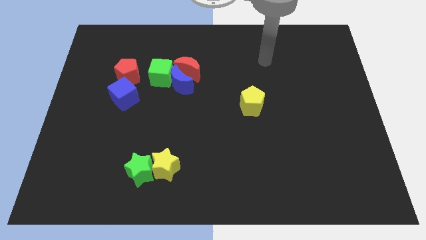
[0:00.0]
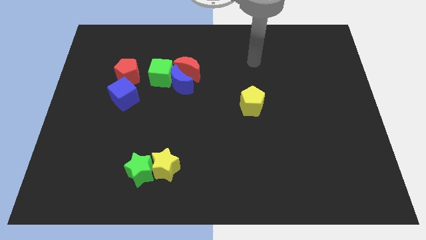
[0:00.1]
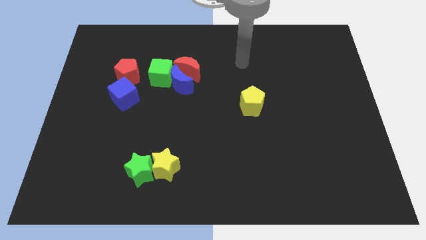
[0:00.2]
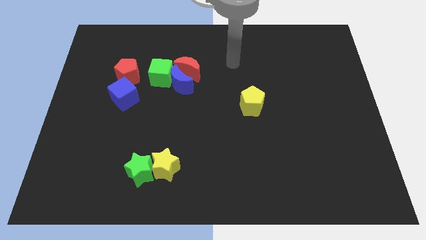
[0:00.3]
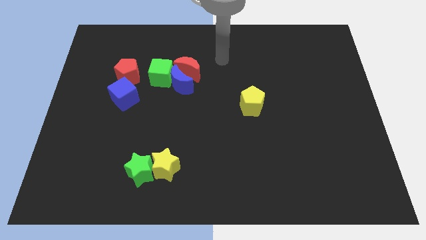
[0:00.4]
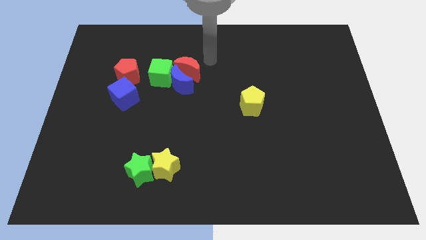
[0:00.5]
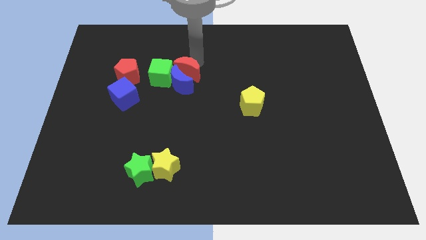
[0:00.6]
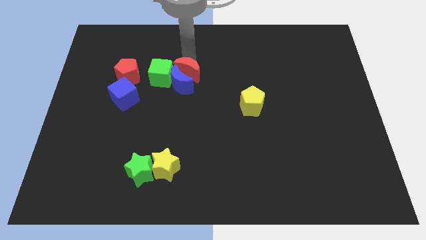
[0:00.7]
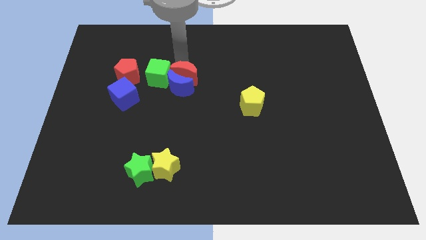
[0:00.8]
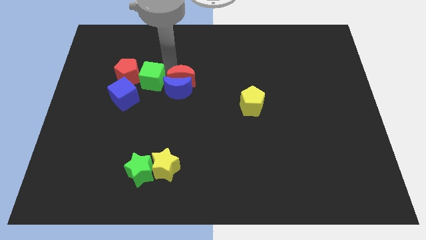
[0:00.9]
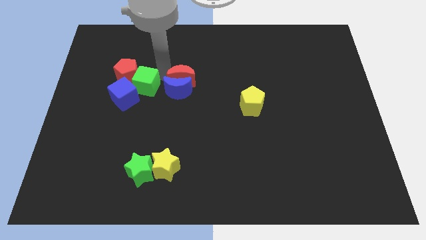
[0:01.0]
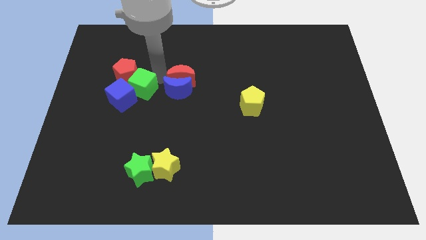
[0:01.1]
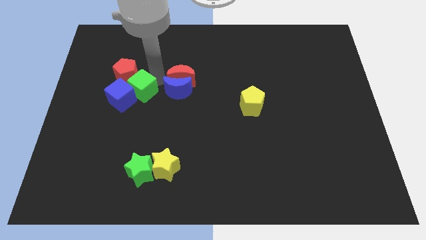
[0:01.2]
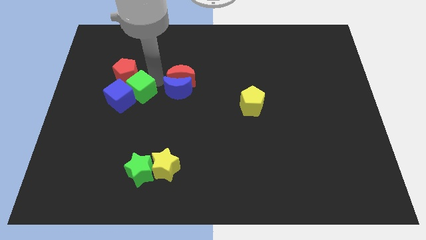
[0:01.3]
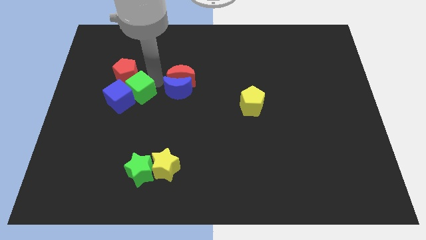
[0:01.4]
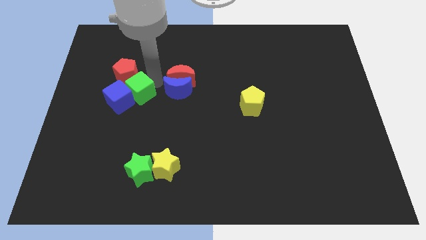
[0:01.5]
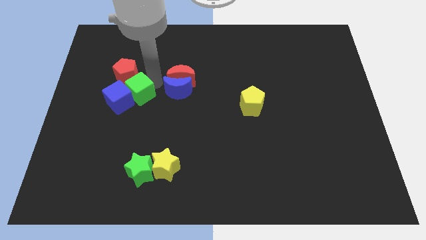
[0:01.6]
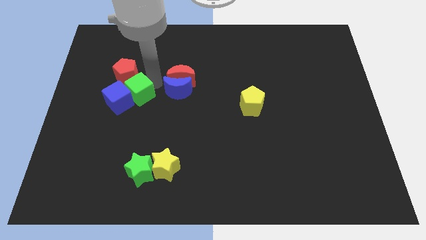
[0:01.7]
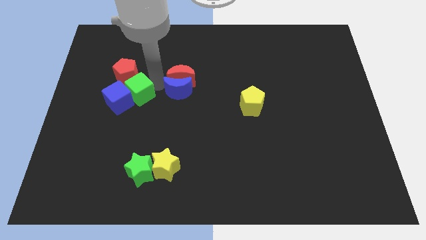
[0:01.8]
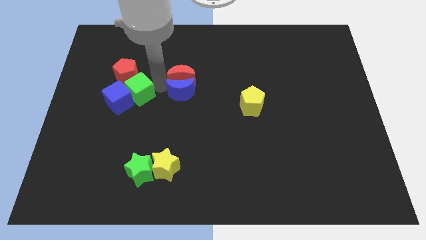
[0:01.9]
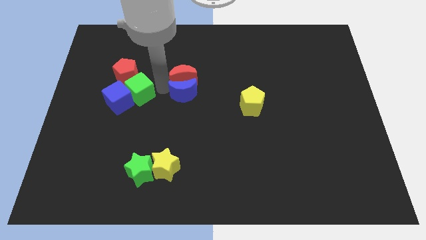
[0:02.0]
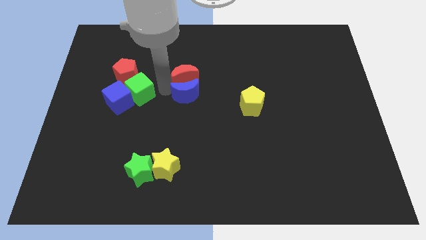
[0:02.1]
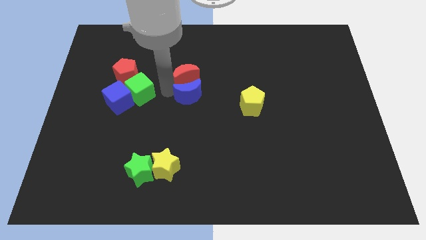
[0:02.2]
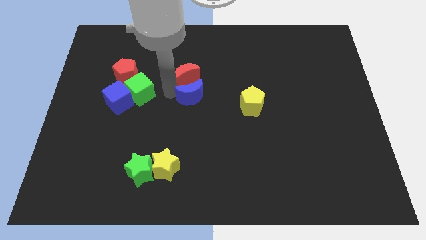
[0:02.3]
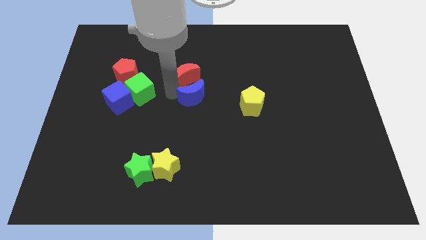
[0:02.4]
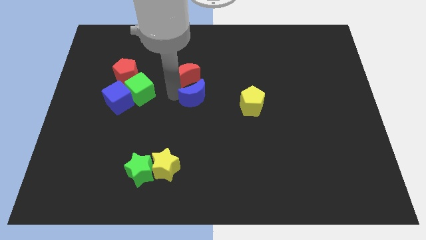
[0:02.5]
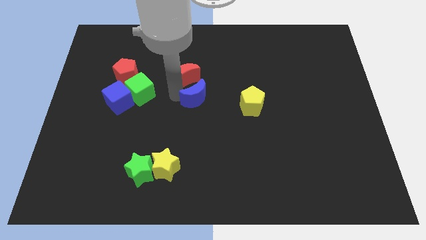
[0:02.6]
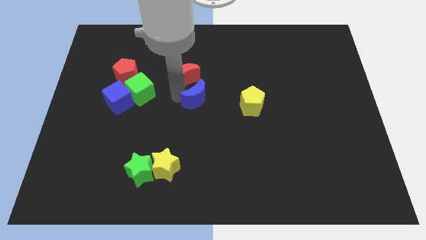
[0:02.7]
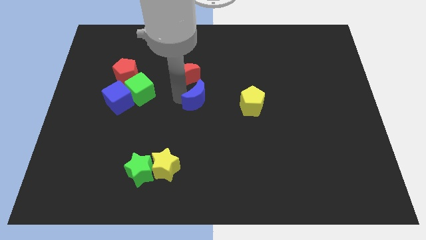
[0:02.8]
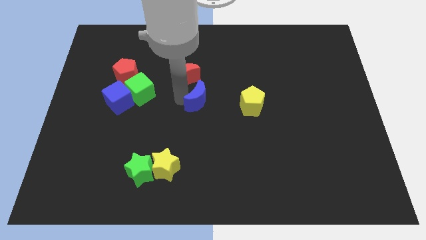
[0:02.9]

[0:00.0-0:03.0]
move the blue moon away from the red moon and green cube

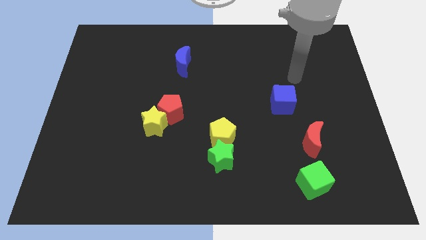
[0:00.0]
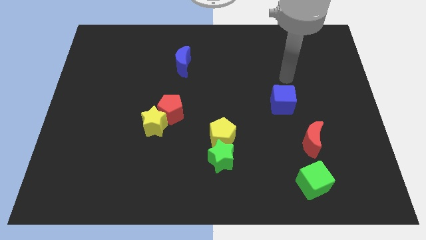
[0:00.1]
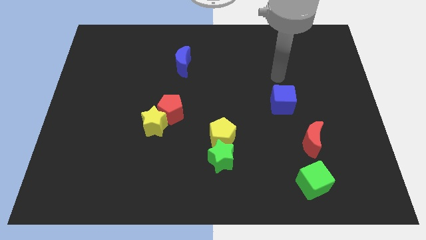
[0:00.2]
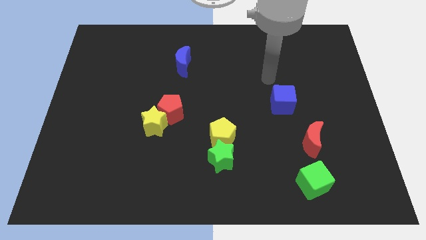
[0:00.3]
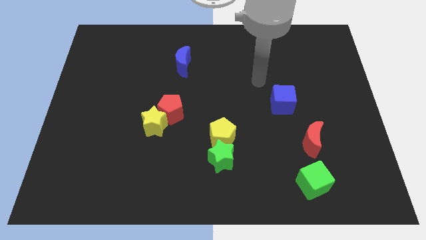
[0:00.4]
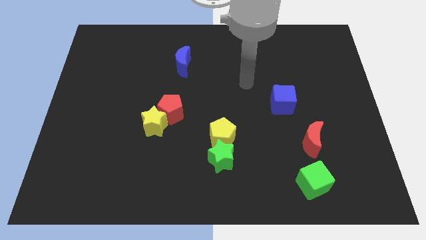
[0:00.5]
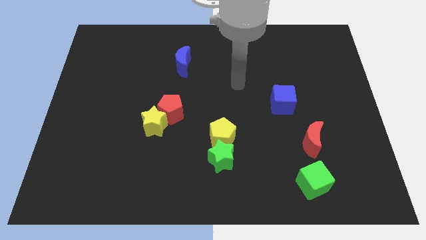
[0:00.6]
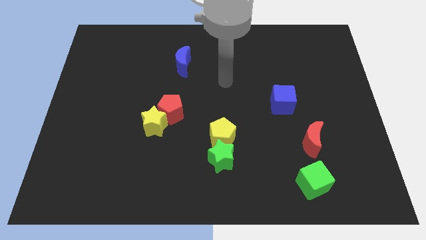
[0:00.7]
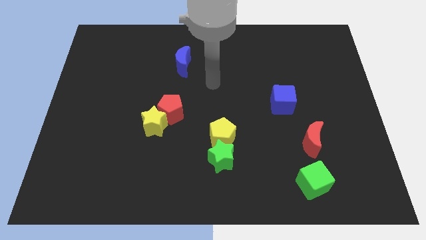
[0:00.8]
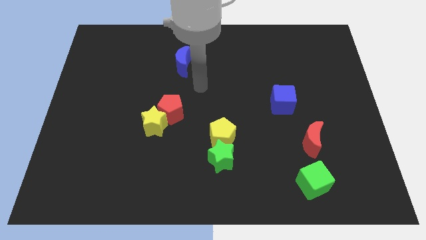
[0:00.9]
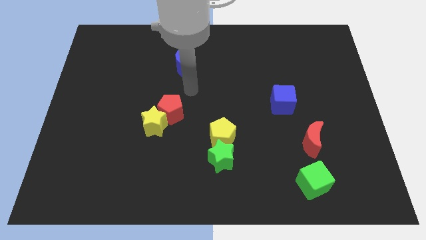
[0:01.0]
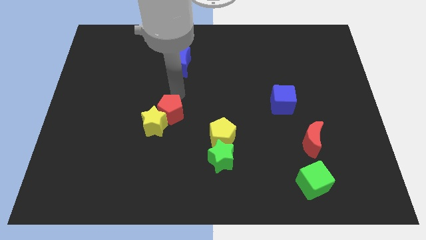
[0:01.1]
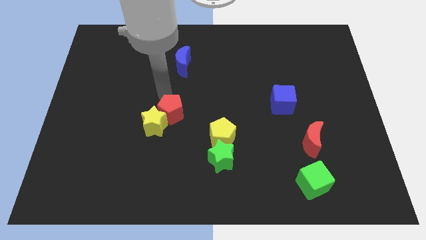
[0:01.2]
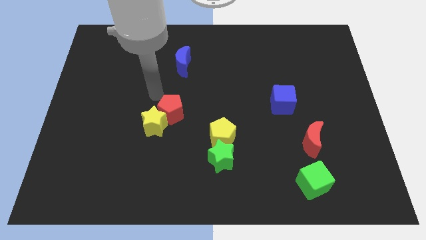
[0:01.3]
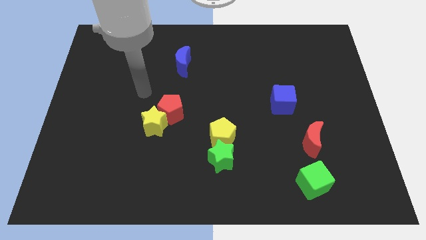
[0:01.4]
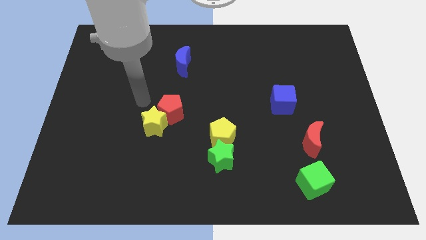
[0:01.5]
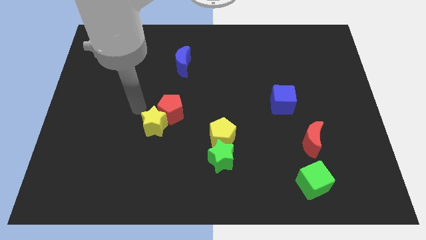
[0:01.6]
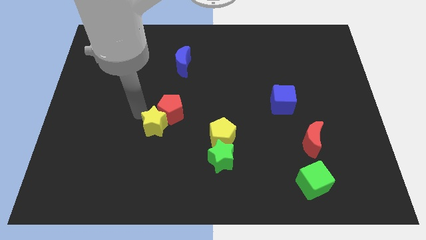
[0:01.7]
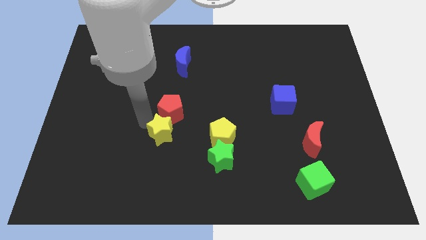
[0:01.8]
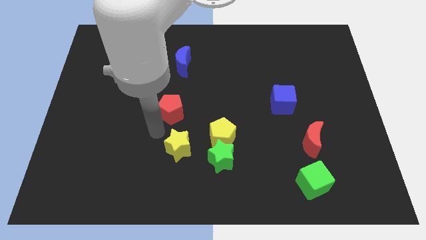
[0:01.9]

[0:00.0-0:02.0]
separate the red pentagon from the yellow star

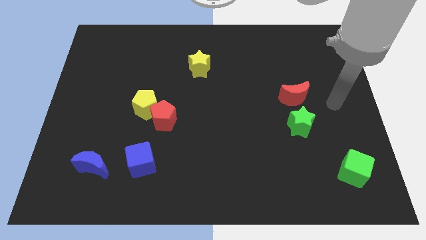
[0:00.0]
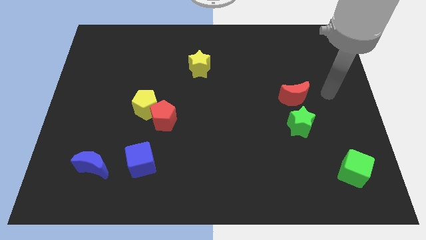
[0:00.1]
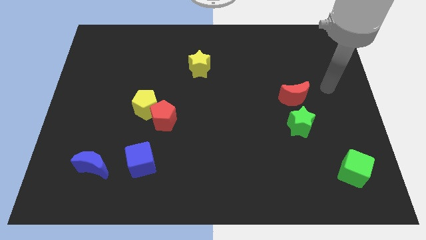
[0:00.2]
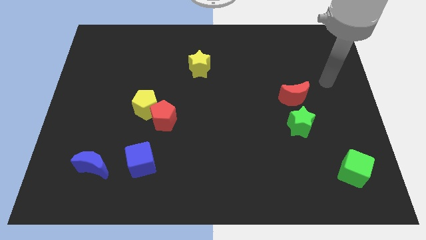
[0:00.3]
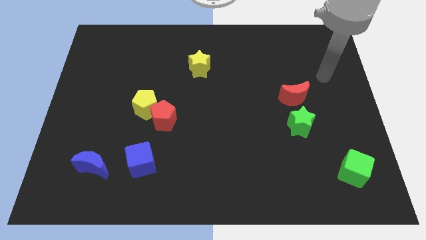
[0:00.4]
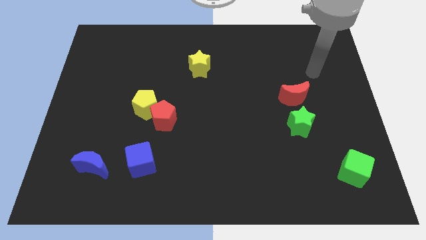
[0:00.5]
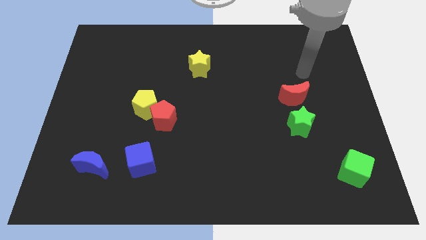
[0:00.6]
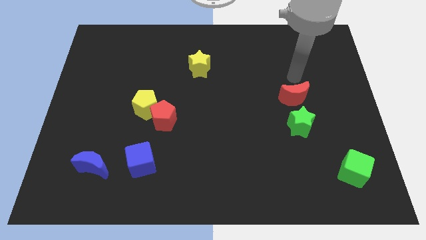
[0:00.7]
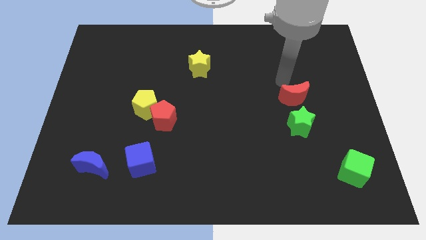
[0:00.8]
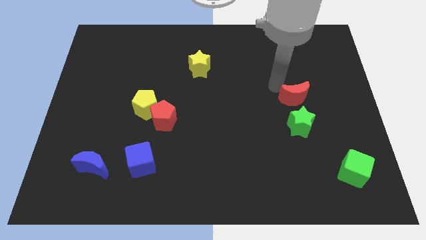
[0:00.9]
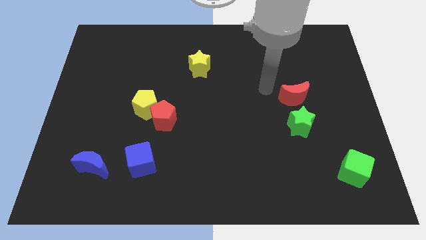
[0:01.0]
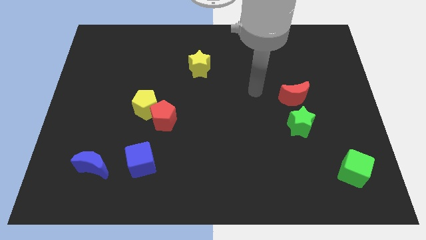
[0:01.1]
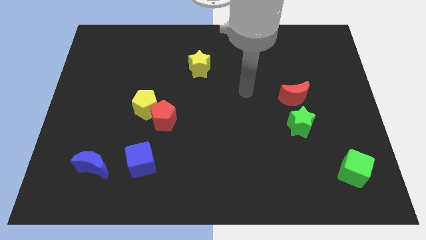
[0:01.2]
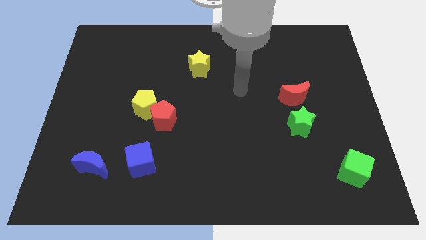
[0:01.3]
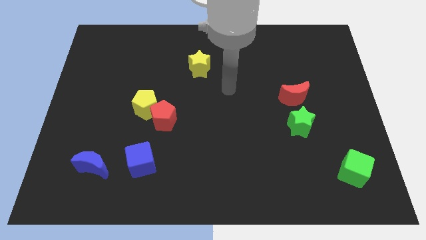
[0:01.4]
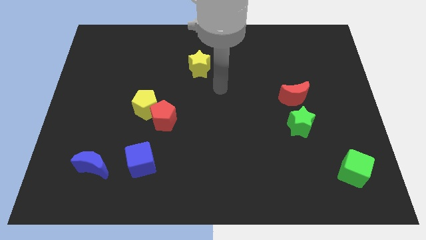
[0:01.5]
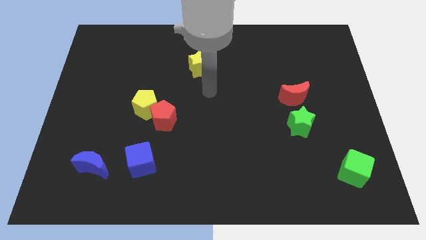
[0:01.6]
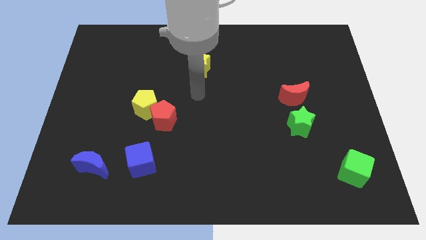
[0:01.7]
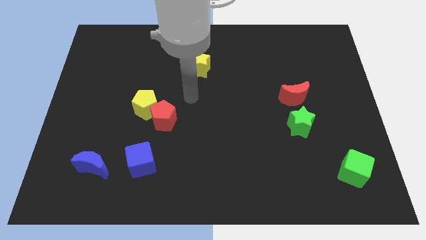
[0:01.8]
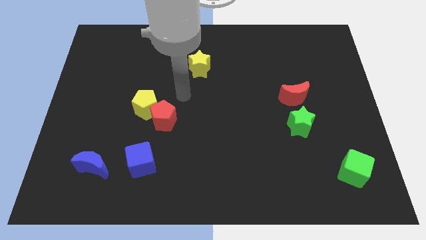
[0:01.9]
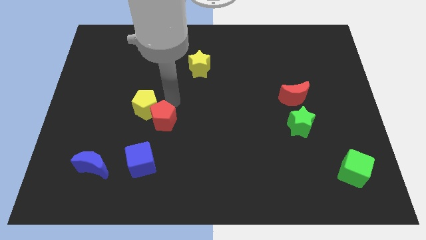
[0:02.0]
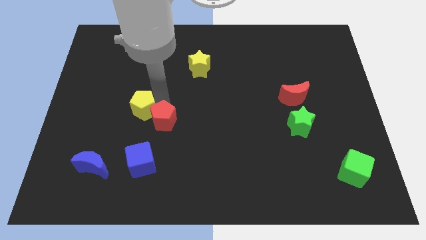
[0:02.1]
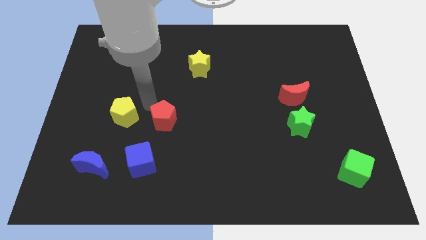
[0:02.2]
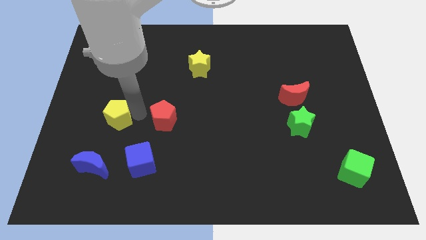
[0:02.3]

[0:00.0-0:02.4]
separate the red pentagon from the yellow pentagon

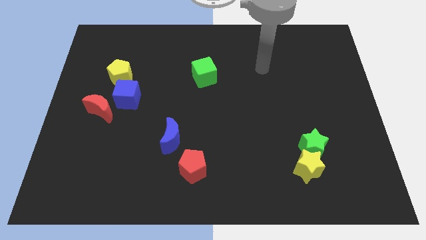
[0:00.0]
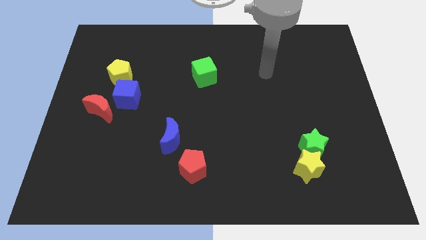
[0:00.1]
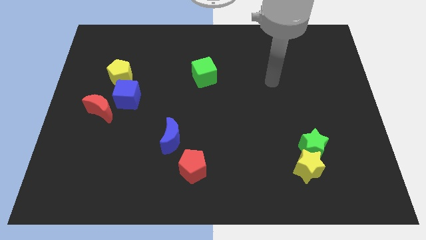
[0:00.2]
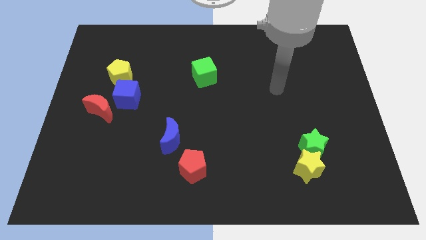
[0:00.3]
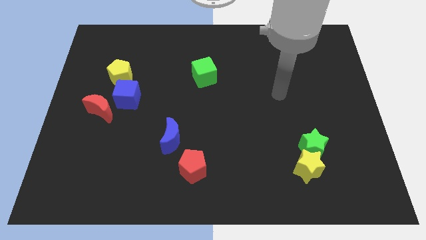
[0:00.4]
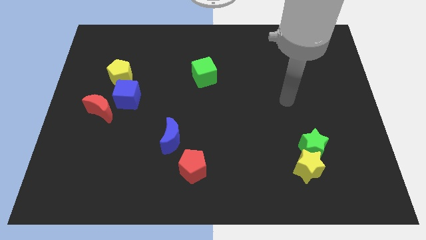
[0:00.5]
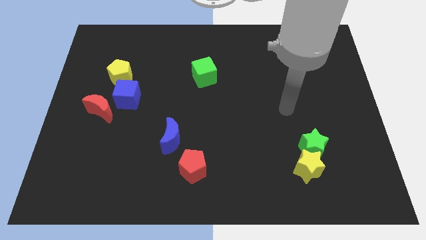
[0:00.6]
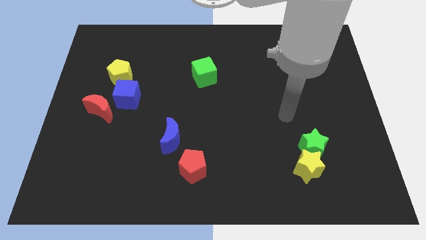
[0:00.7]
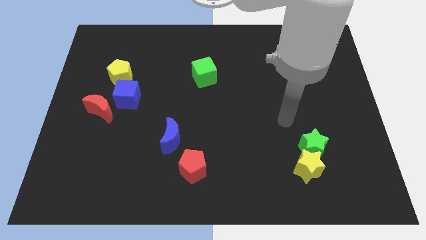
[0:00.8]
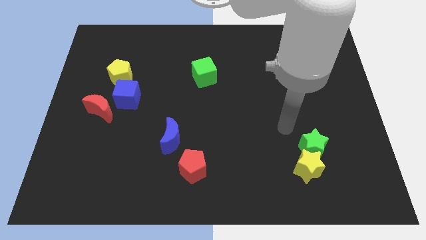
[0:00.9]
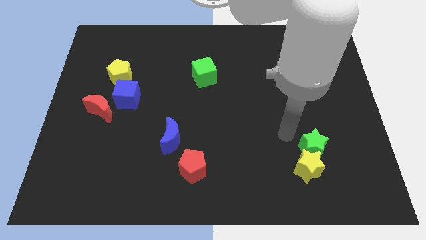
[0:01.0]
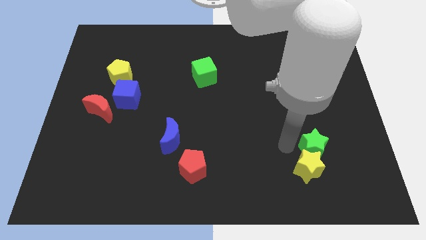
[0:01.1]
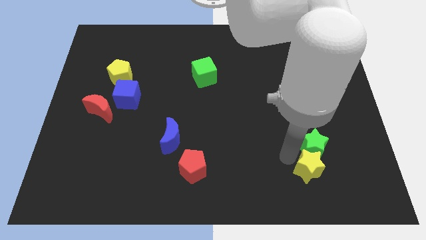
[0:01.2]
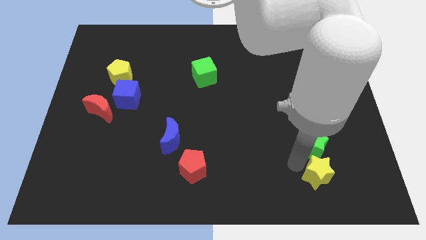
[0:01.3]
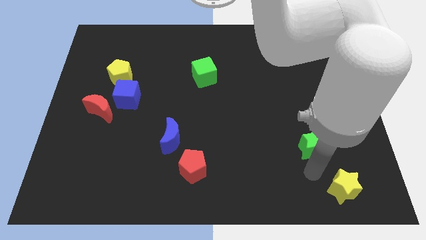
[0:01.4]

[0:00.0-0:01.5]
move the green star away from the yellow star

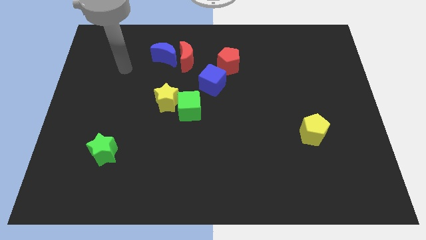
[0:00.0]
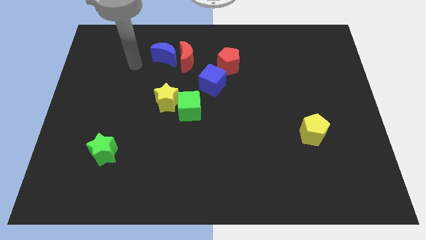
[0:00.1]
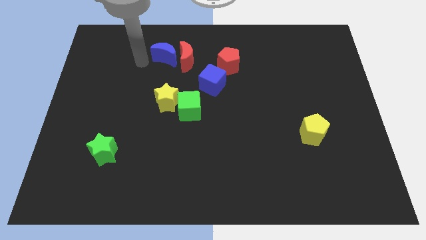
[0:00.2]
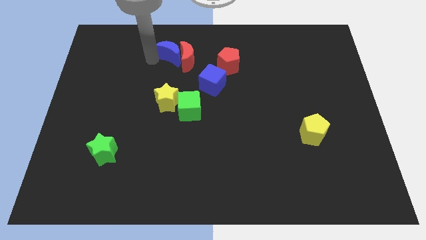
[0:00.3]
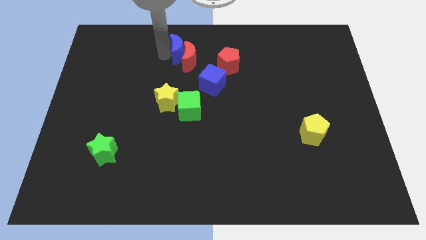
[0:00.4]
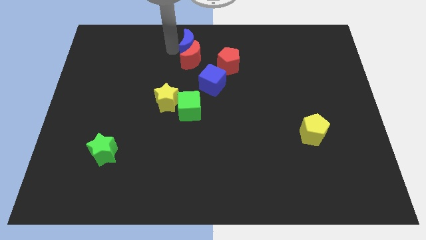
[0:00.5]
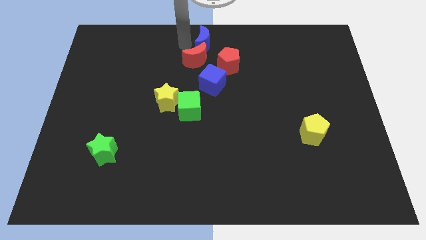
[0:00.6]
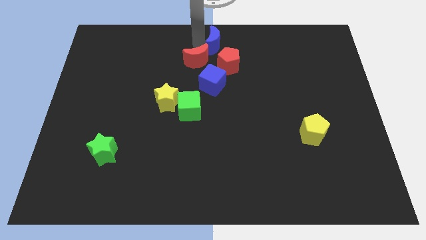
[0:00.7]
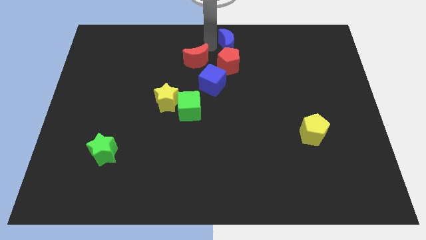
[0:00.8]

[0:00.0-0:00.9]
separate the red moon from the blue moon
